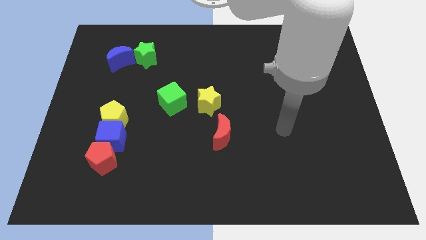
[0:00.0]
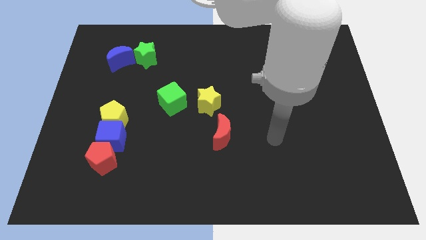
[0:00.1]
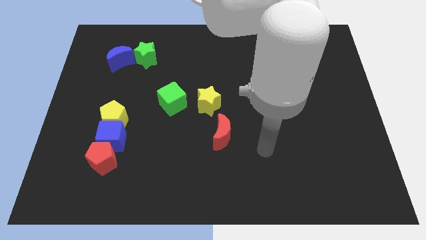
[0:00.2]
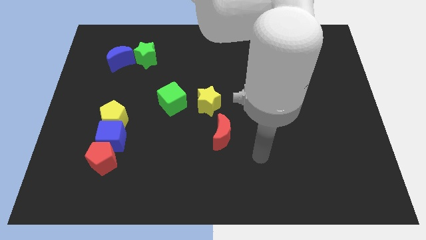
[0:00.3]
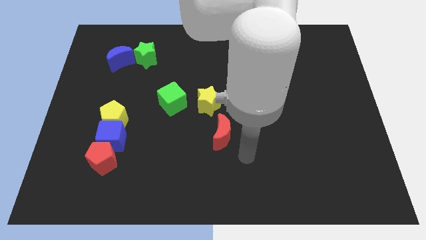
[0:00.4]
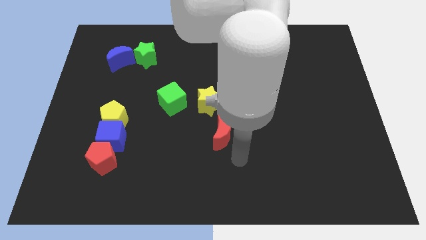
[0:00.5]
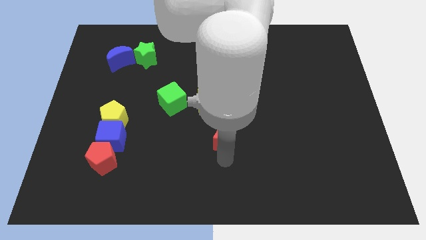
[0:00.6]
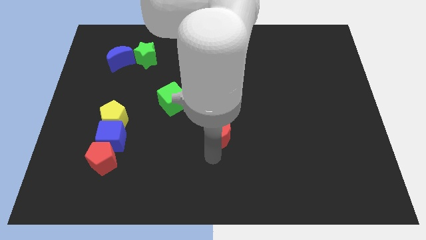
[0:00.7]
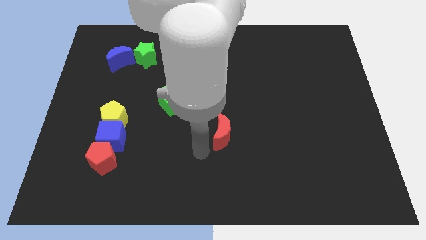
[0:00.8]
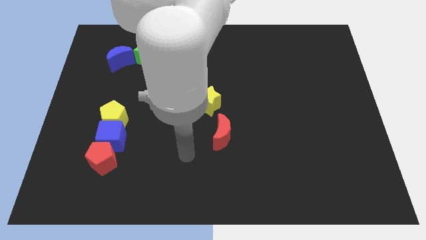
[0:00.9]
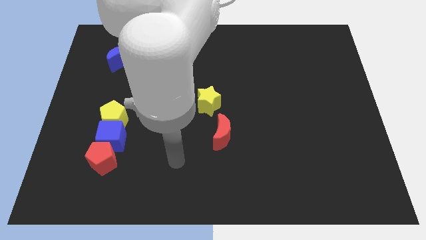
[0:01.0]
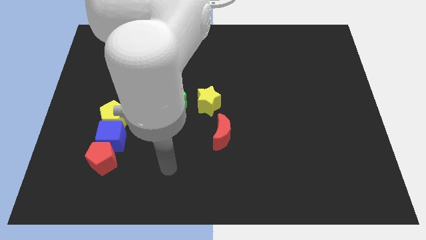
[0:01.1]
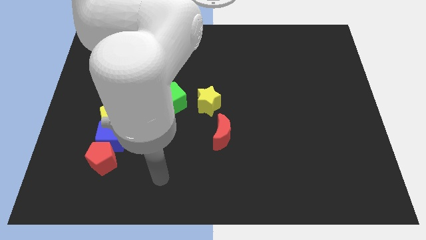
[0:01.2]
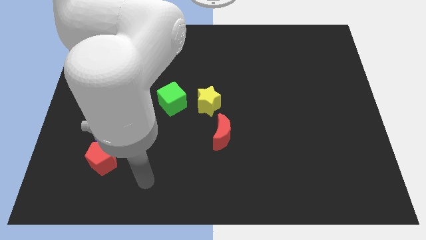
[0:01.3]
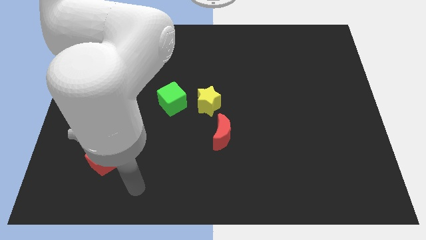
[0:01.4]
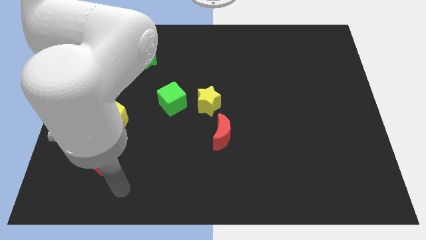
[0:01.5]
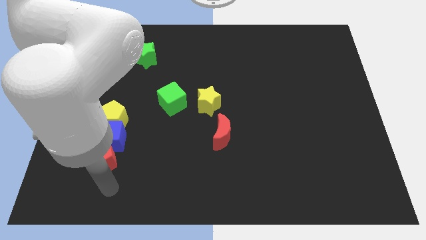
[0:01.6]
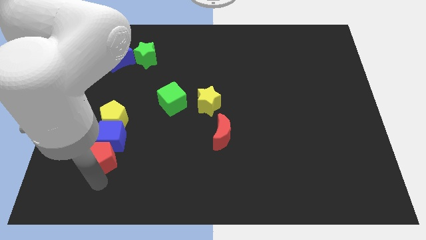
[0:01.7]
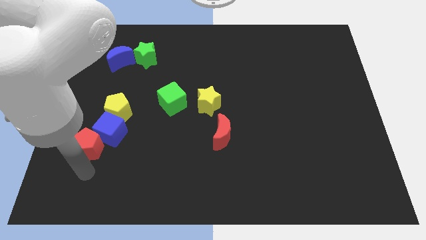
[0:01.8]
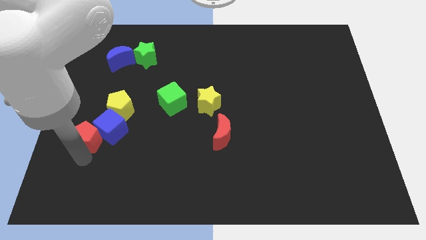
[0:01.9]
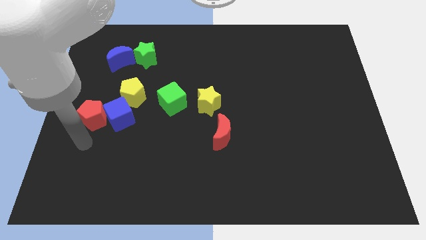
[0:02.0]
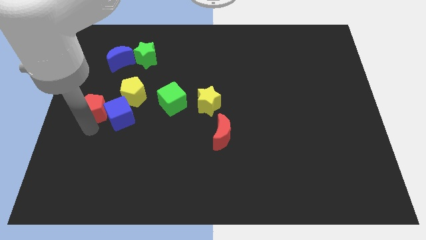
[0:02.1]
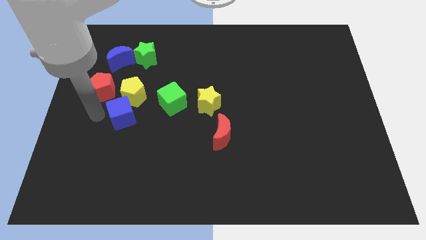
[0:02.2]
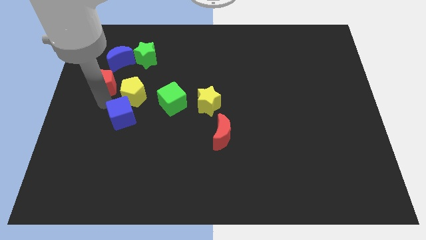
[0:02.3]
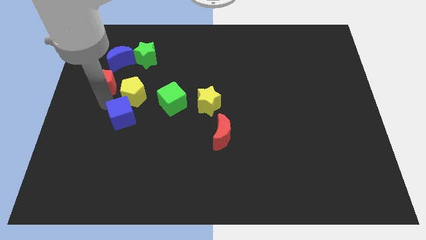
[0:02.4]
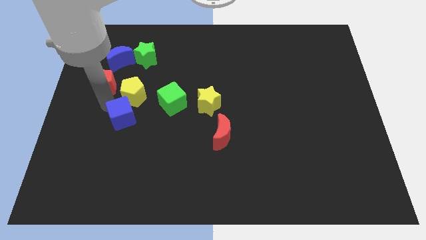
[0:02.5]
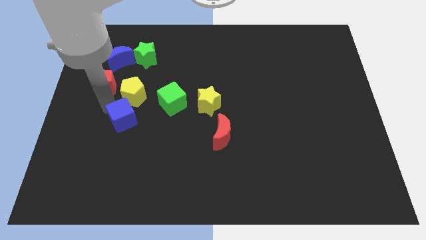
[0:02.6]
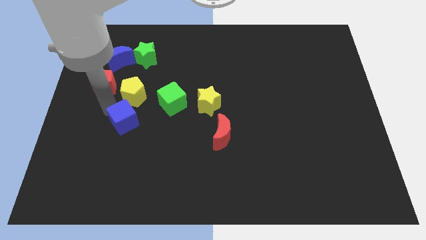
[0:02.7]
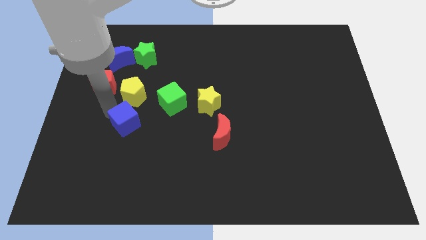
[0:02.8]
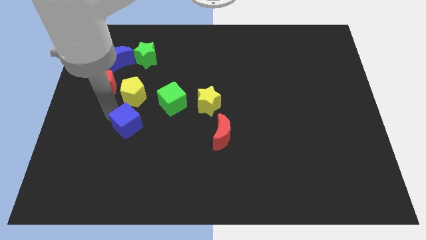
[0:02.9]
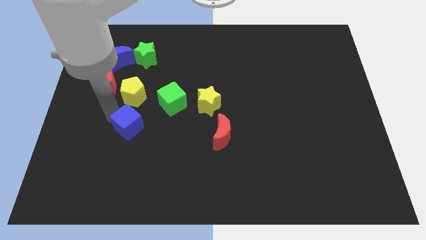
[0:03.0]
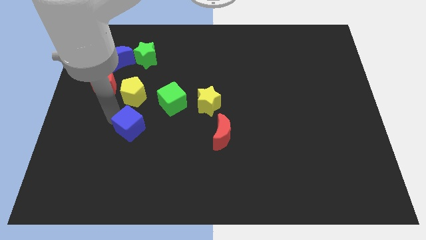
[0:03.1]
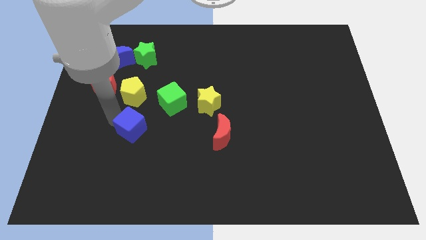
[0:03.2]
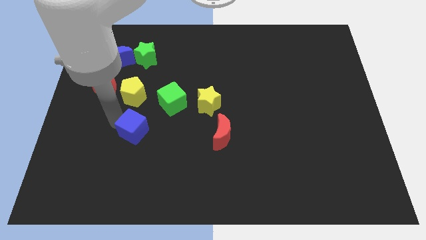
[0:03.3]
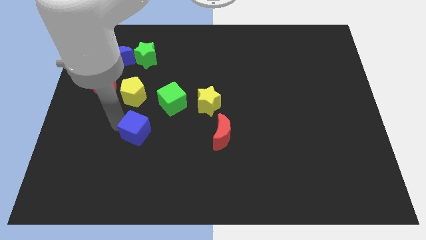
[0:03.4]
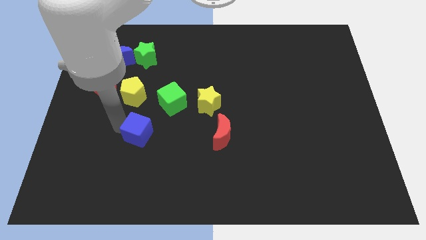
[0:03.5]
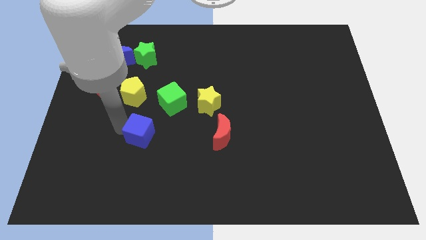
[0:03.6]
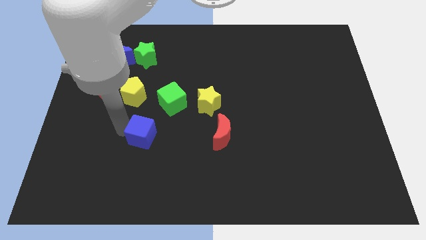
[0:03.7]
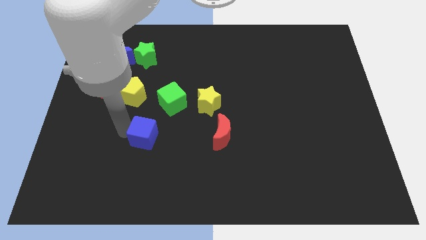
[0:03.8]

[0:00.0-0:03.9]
move the blue cube right a little bit

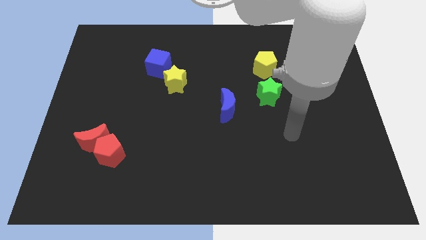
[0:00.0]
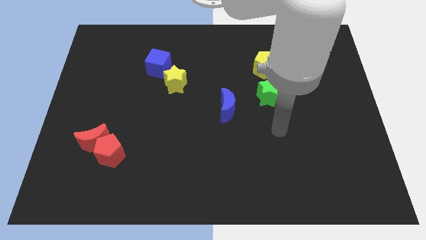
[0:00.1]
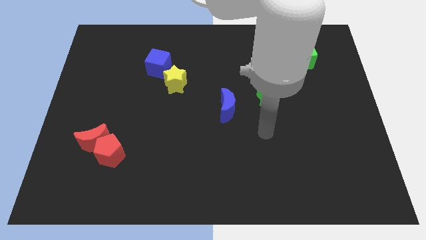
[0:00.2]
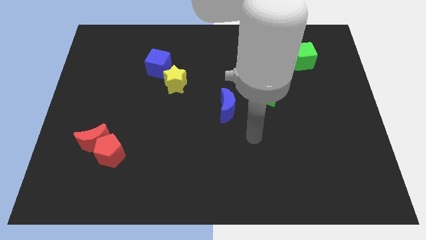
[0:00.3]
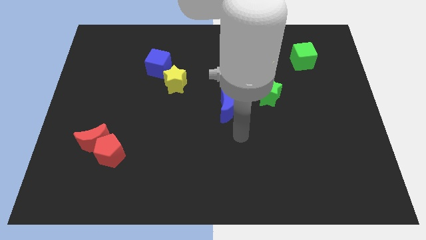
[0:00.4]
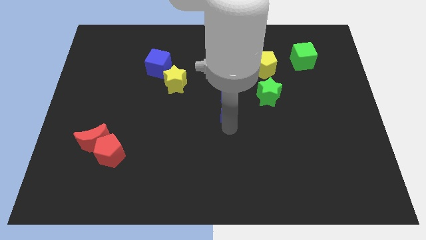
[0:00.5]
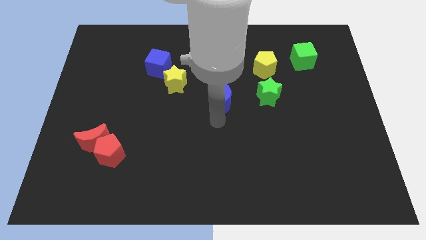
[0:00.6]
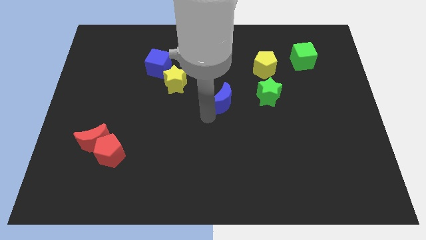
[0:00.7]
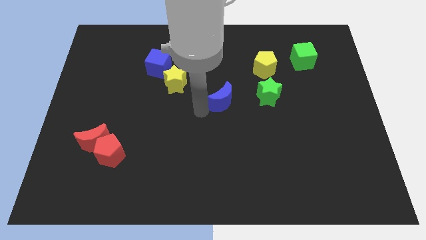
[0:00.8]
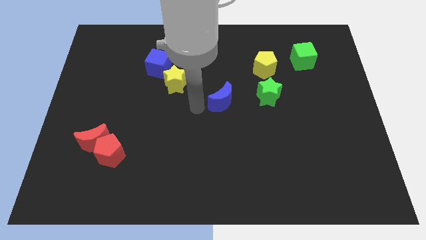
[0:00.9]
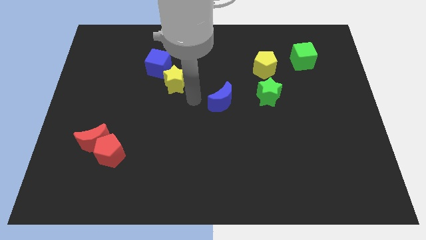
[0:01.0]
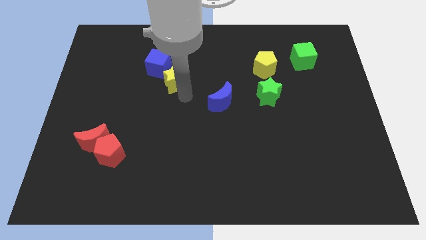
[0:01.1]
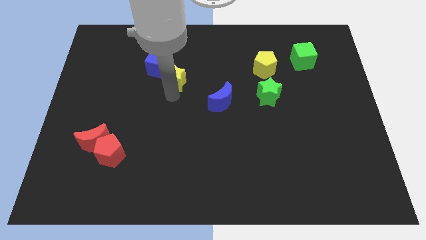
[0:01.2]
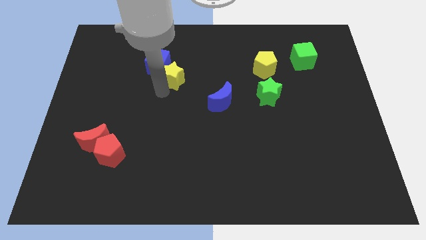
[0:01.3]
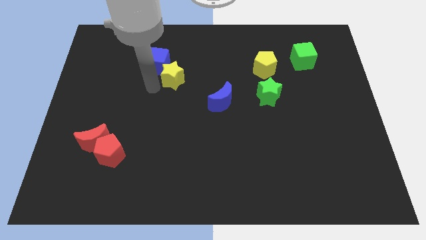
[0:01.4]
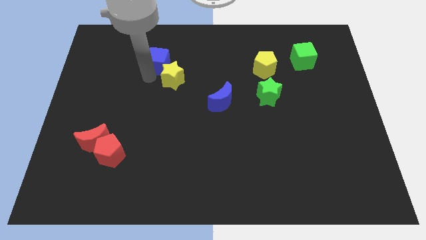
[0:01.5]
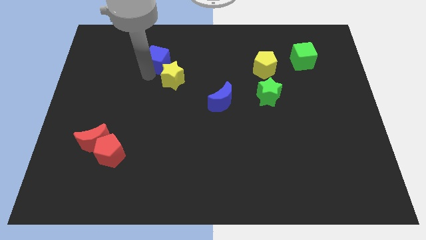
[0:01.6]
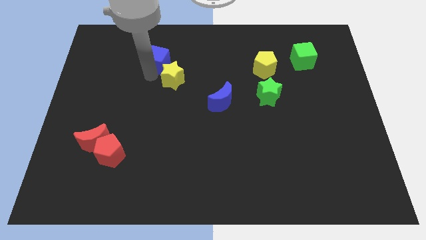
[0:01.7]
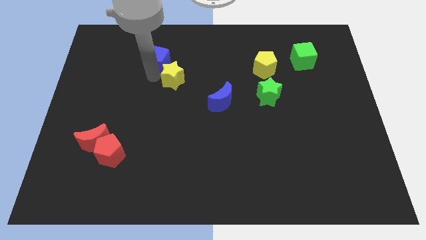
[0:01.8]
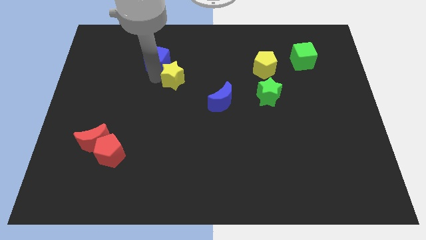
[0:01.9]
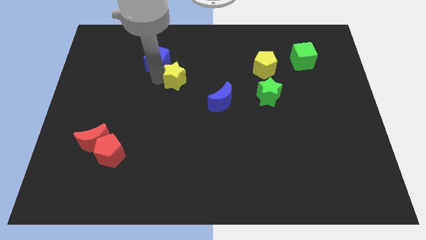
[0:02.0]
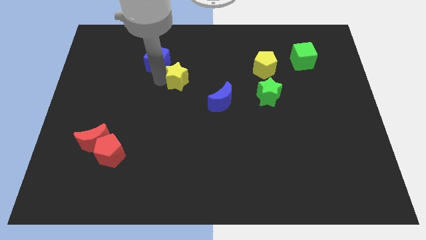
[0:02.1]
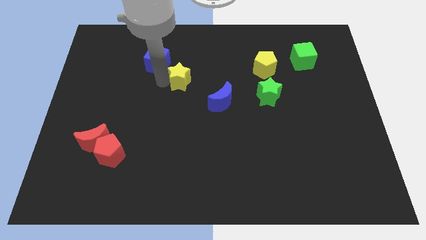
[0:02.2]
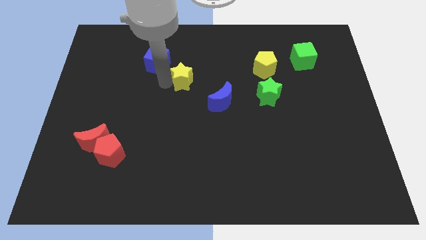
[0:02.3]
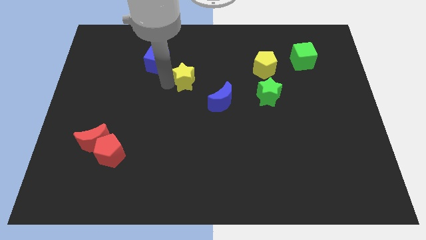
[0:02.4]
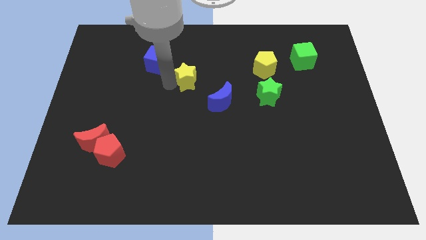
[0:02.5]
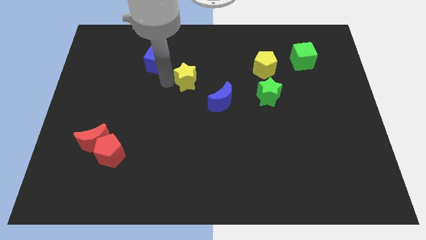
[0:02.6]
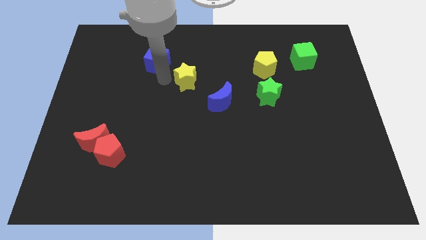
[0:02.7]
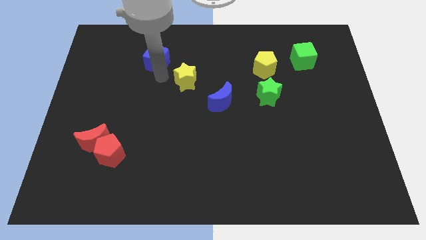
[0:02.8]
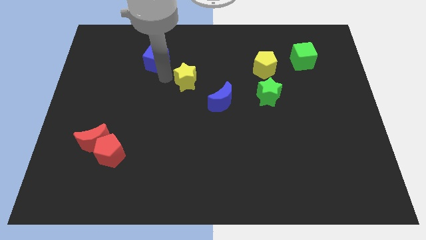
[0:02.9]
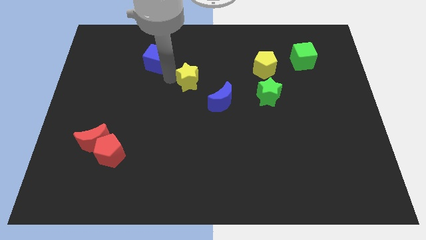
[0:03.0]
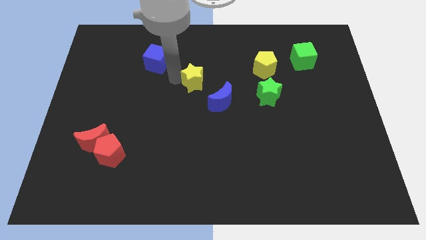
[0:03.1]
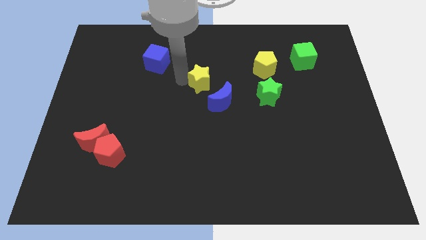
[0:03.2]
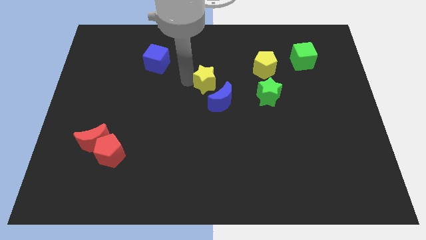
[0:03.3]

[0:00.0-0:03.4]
push the yellow star right somewhat

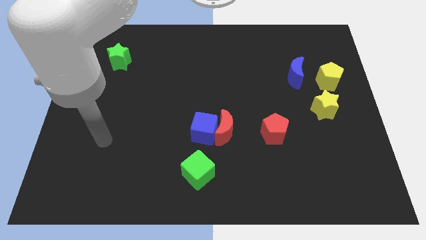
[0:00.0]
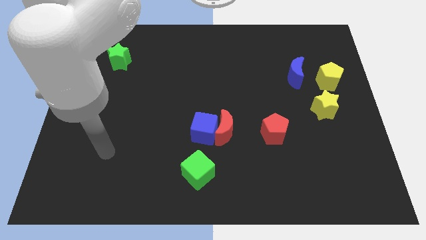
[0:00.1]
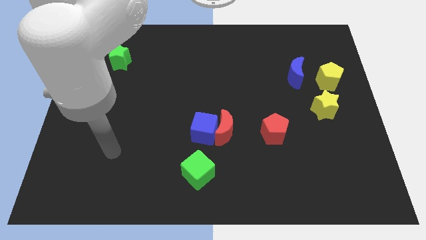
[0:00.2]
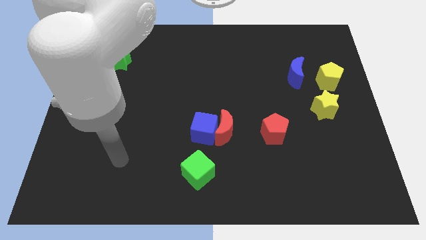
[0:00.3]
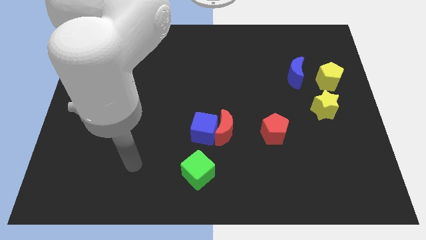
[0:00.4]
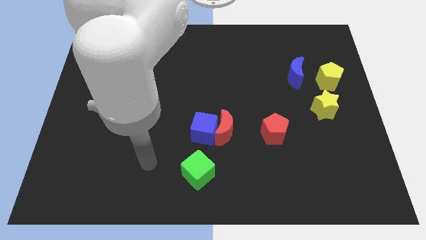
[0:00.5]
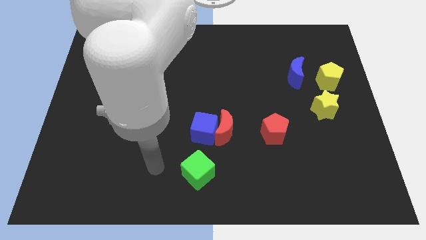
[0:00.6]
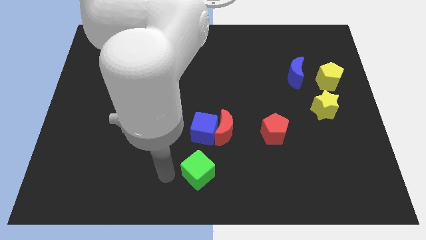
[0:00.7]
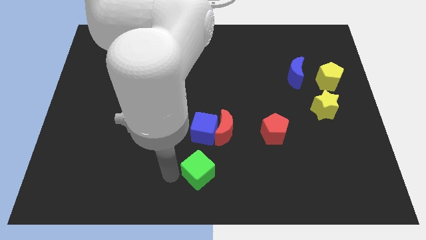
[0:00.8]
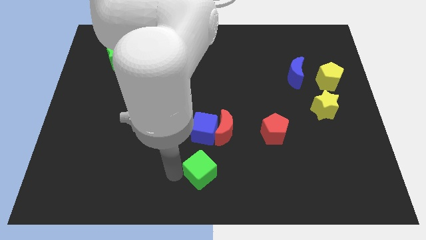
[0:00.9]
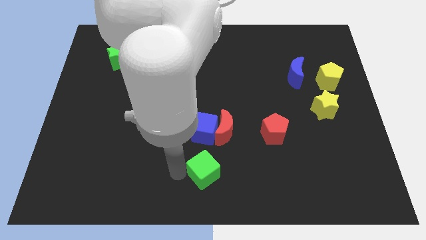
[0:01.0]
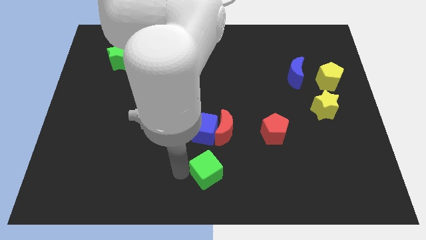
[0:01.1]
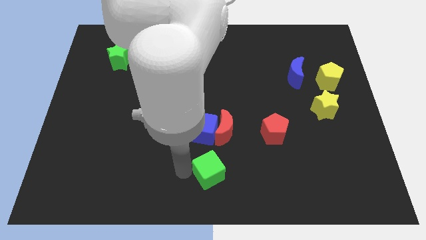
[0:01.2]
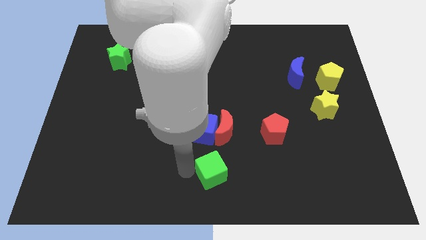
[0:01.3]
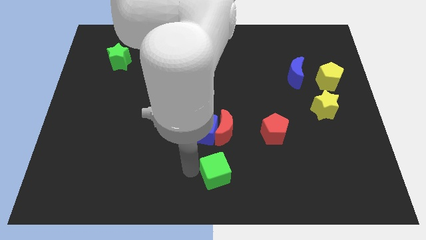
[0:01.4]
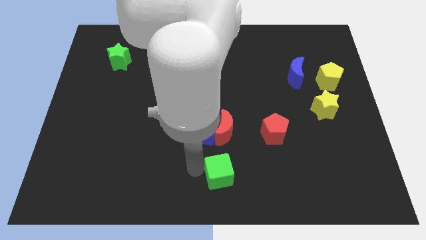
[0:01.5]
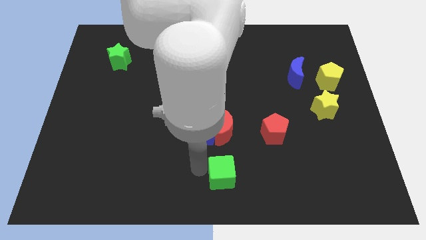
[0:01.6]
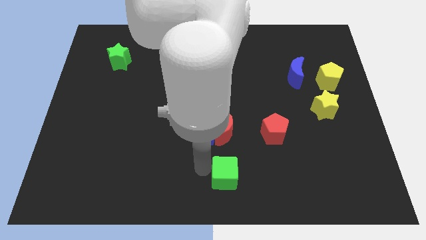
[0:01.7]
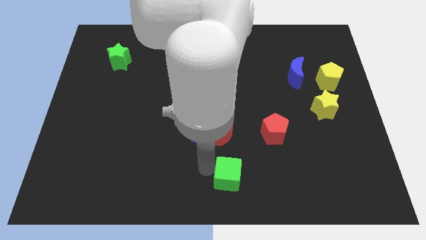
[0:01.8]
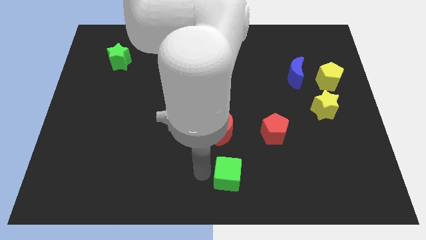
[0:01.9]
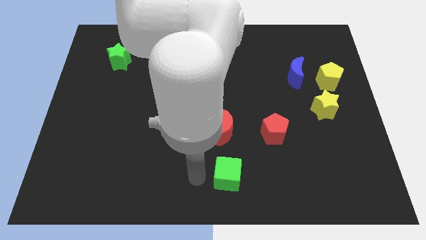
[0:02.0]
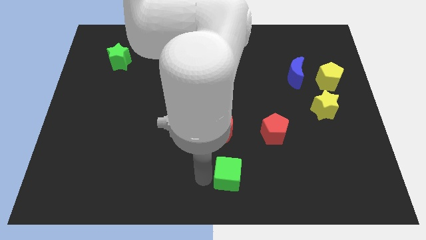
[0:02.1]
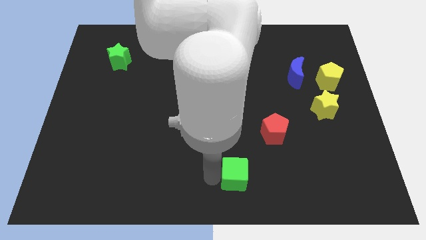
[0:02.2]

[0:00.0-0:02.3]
slightly push the green cube to the right
